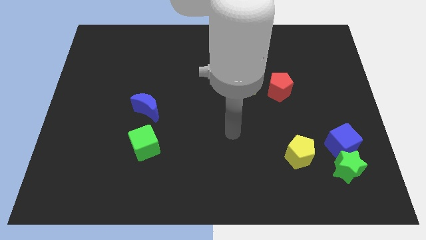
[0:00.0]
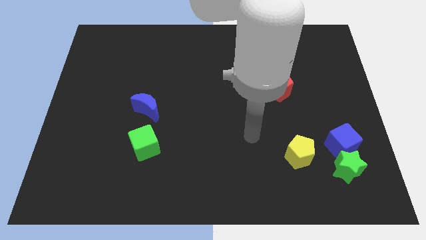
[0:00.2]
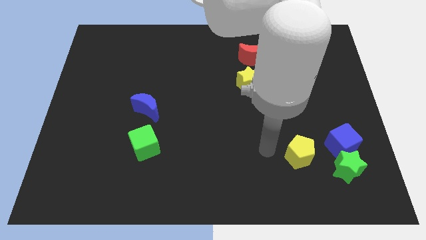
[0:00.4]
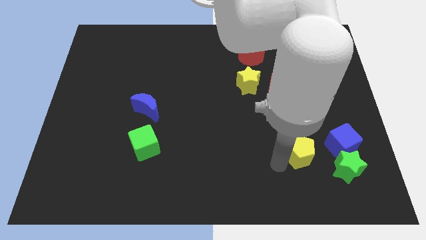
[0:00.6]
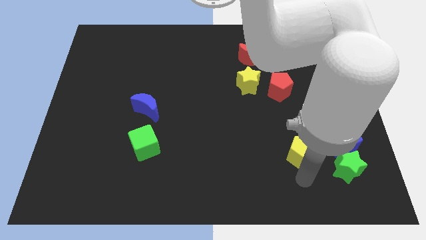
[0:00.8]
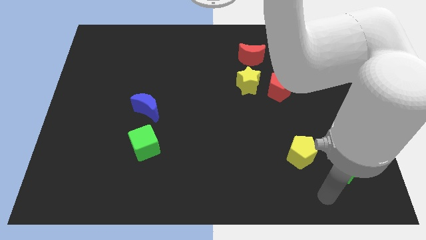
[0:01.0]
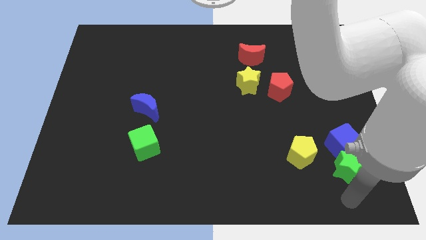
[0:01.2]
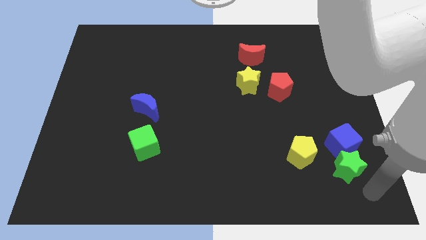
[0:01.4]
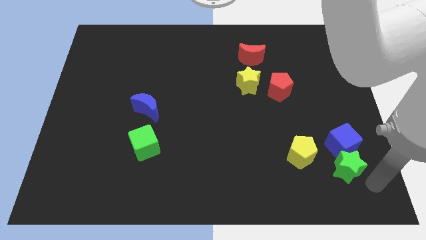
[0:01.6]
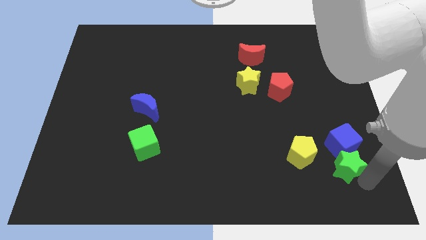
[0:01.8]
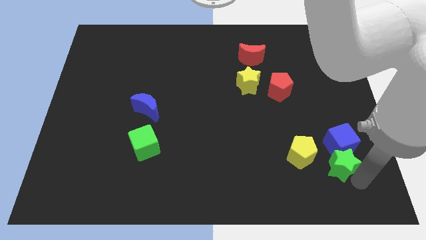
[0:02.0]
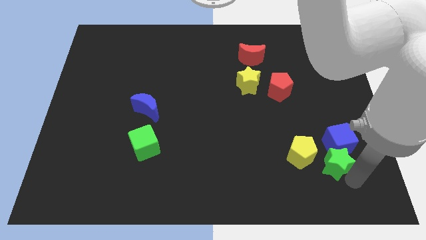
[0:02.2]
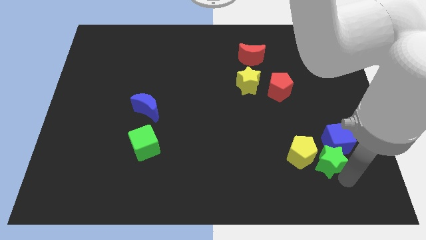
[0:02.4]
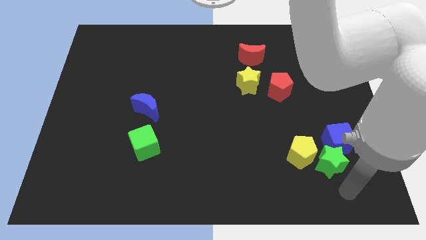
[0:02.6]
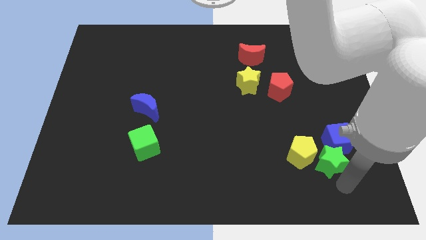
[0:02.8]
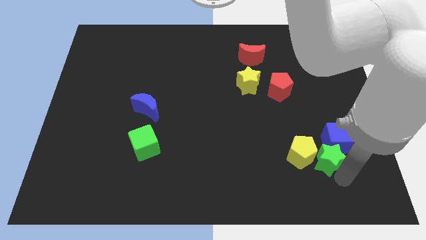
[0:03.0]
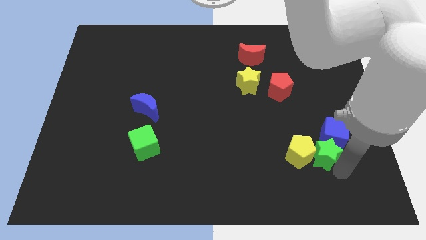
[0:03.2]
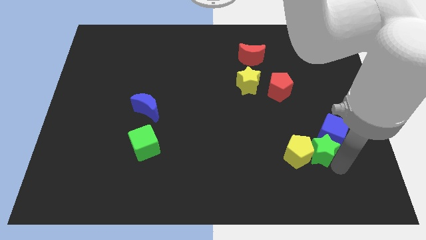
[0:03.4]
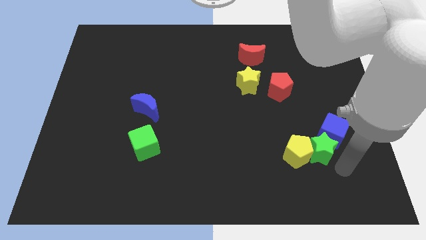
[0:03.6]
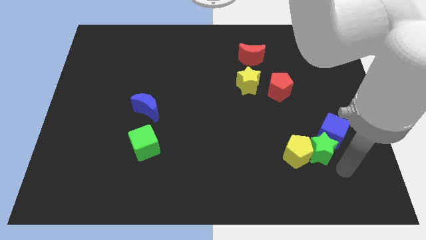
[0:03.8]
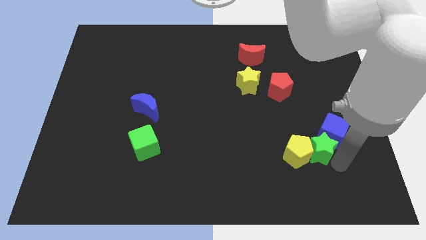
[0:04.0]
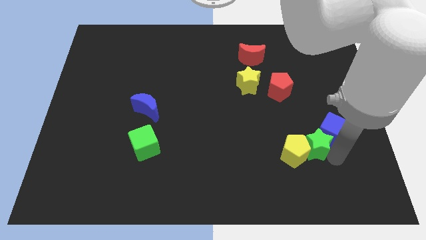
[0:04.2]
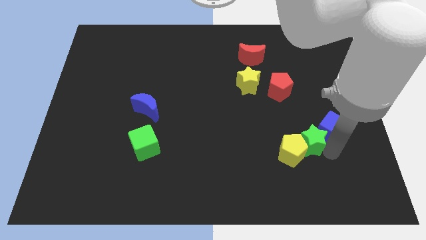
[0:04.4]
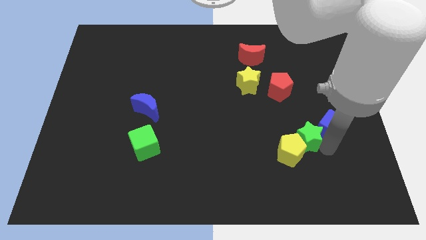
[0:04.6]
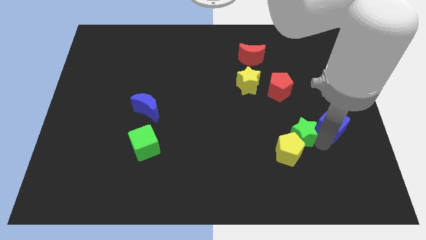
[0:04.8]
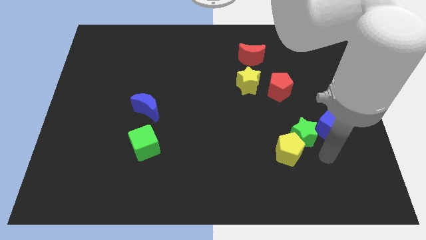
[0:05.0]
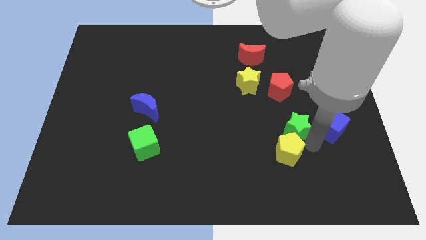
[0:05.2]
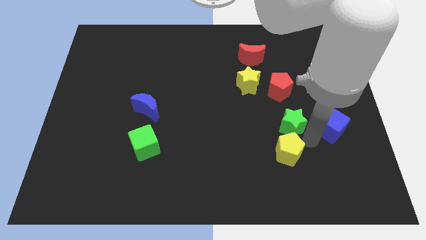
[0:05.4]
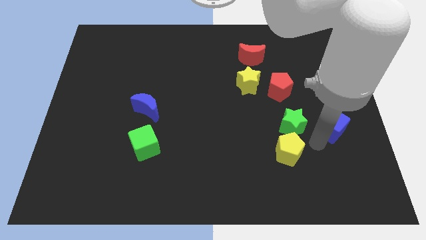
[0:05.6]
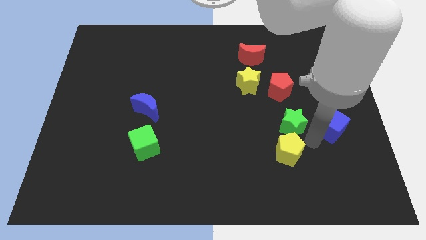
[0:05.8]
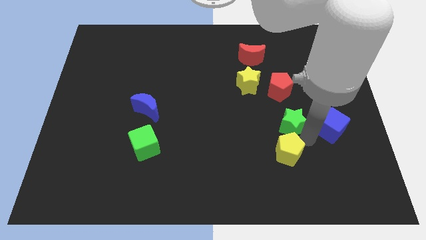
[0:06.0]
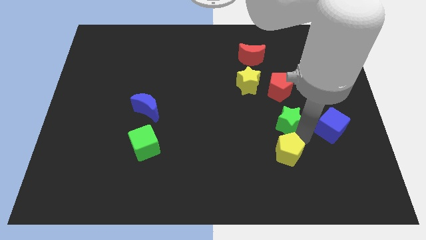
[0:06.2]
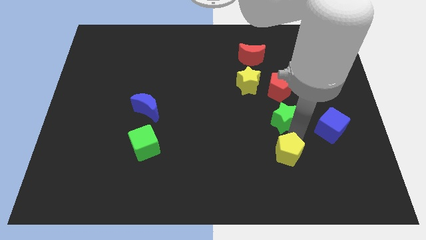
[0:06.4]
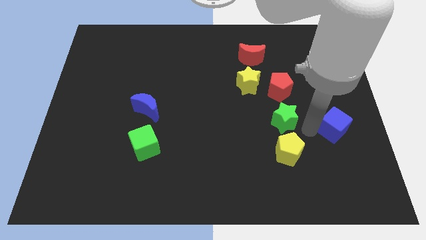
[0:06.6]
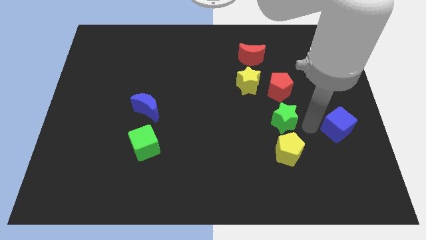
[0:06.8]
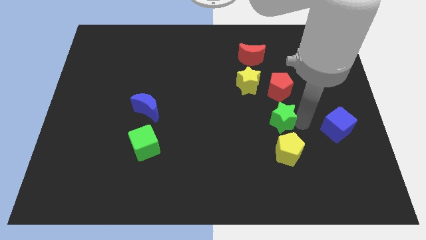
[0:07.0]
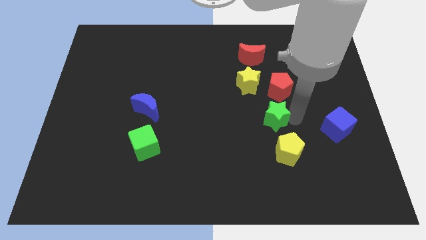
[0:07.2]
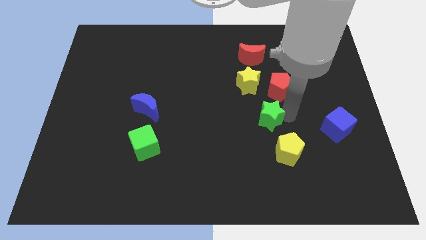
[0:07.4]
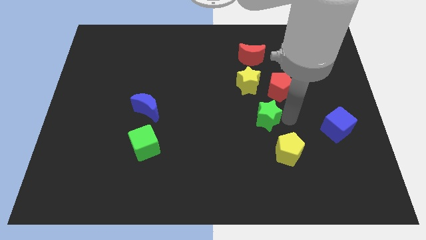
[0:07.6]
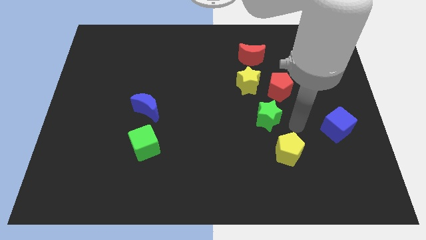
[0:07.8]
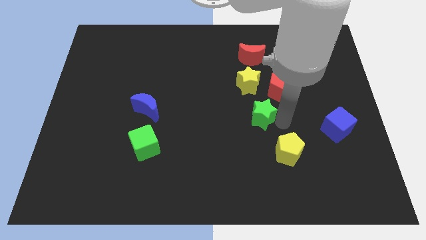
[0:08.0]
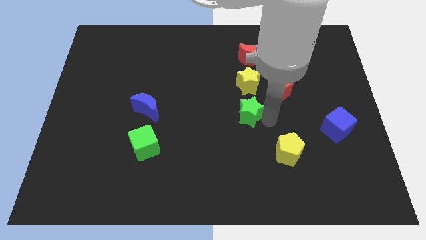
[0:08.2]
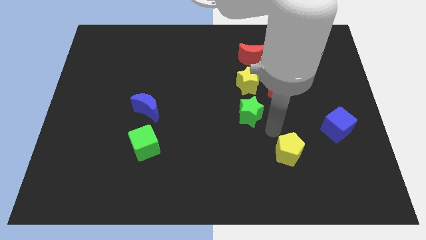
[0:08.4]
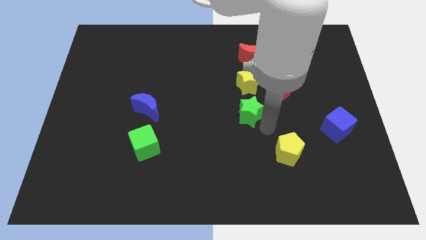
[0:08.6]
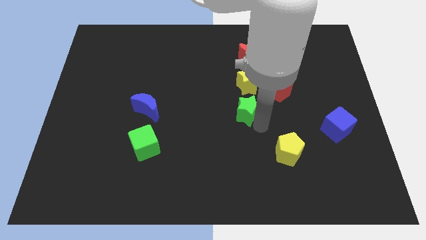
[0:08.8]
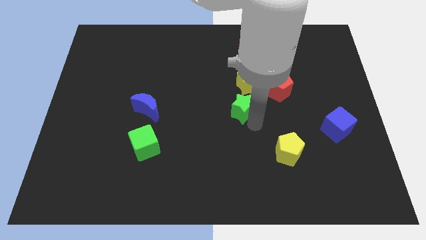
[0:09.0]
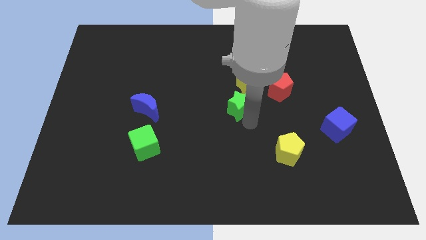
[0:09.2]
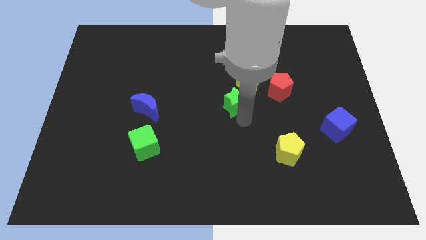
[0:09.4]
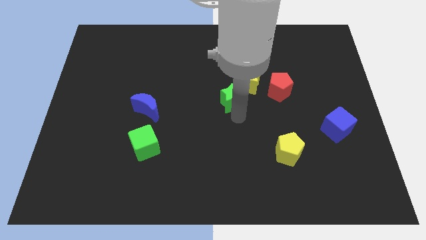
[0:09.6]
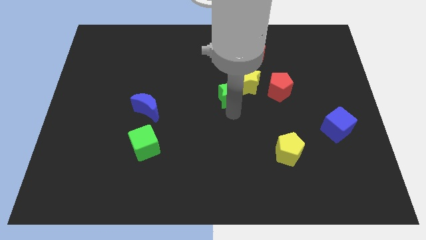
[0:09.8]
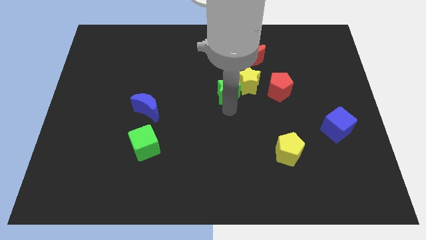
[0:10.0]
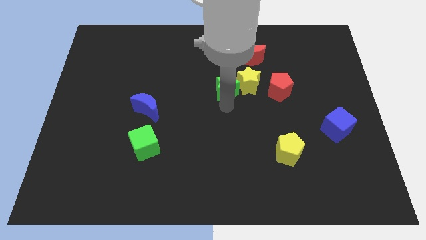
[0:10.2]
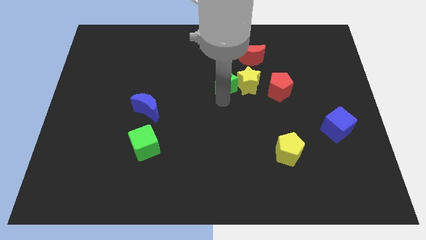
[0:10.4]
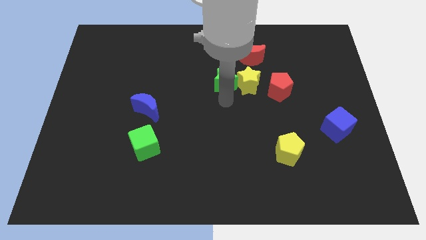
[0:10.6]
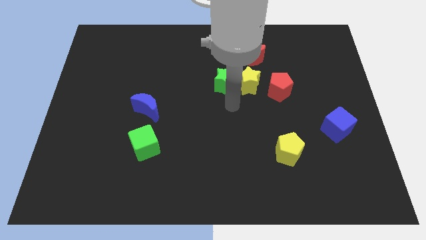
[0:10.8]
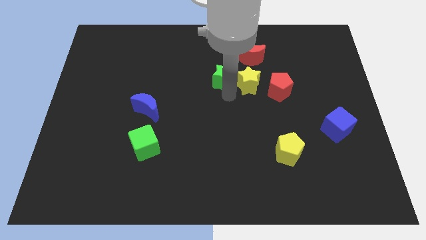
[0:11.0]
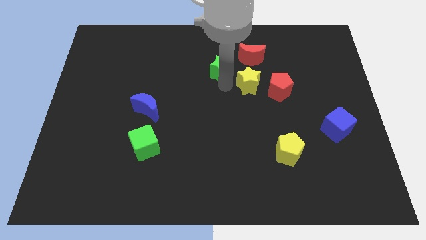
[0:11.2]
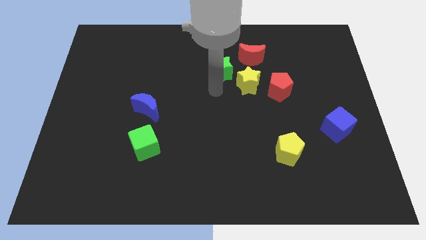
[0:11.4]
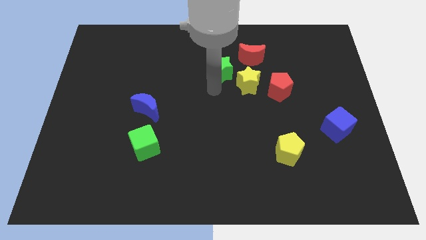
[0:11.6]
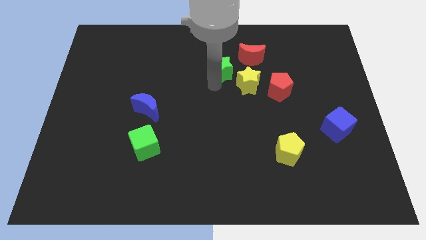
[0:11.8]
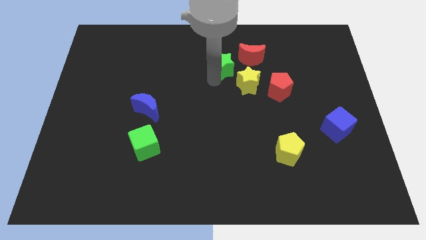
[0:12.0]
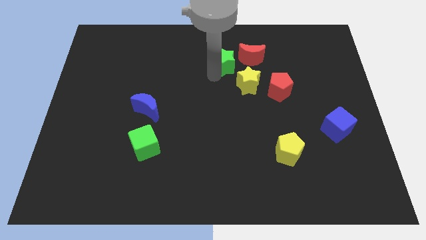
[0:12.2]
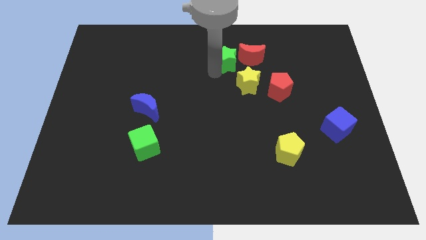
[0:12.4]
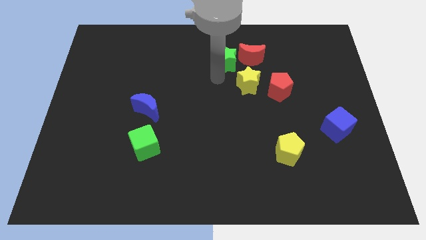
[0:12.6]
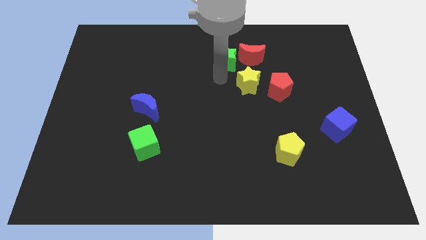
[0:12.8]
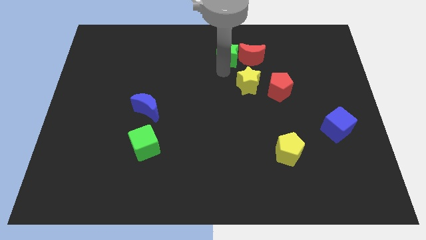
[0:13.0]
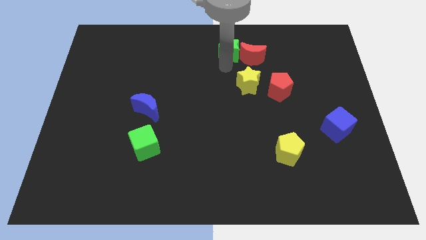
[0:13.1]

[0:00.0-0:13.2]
push the green star to the towards your base

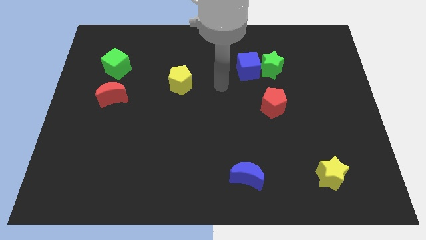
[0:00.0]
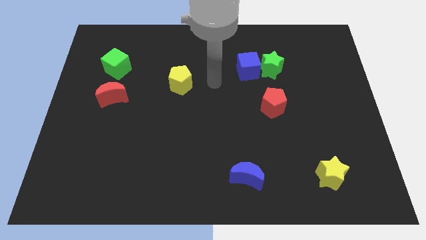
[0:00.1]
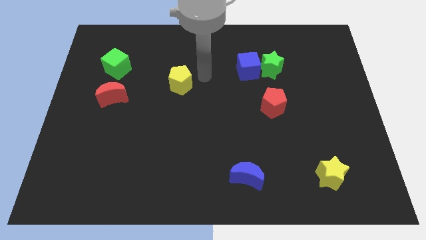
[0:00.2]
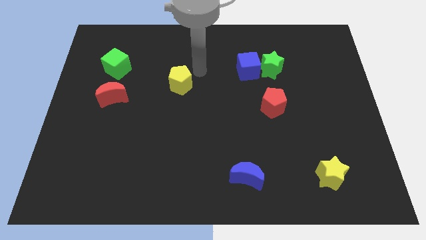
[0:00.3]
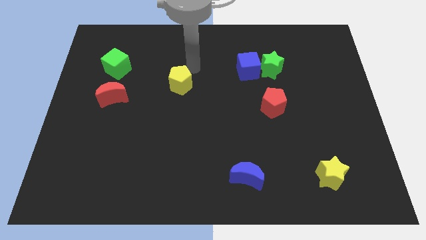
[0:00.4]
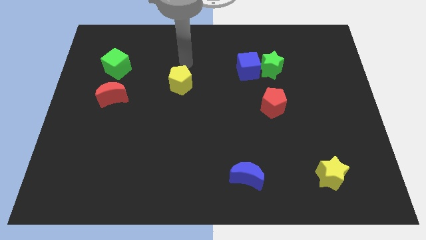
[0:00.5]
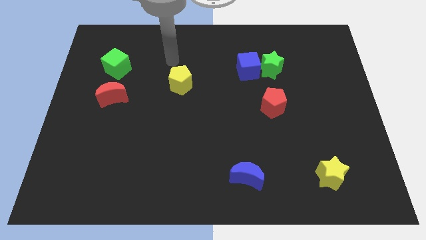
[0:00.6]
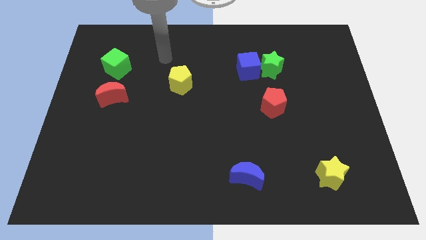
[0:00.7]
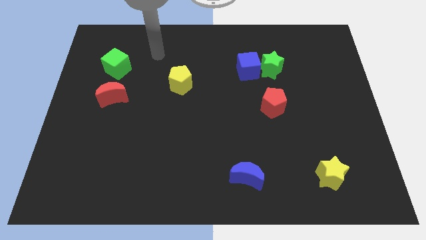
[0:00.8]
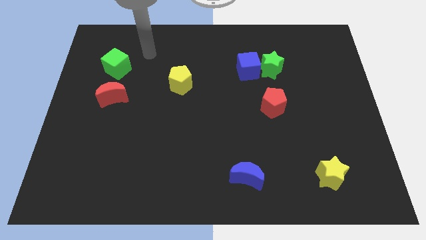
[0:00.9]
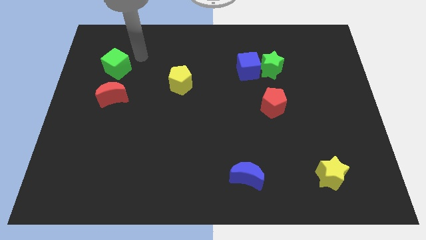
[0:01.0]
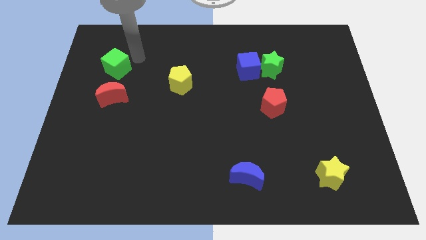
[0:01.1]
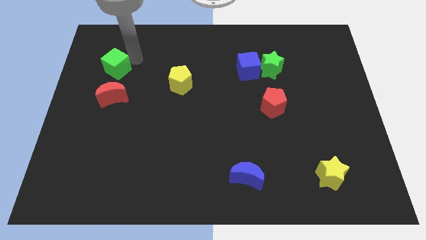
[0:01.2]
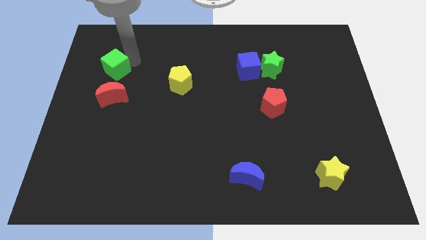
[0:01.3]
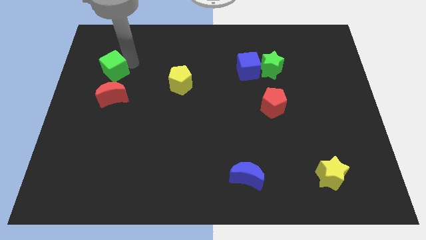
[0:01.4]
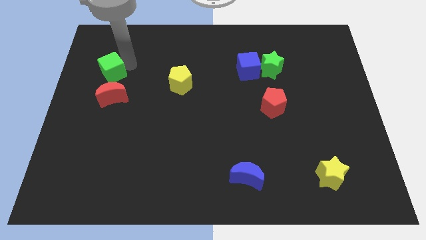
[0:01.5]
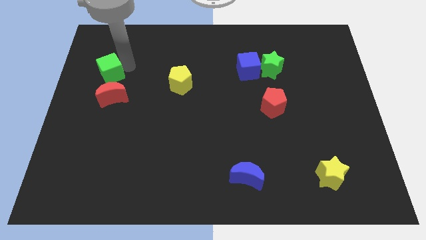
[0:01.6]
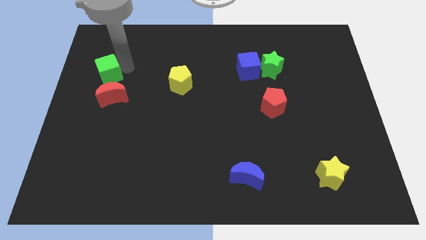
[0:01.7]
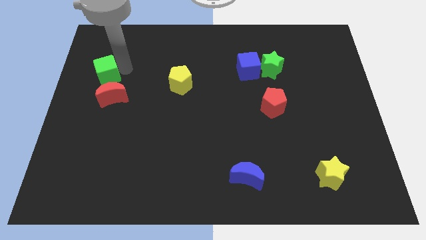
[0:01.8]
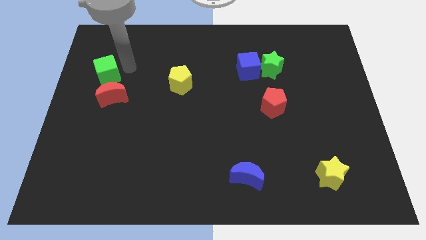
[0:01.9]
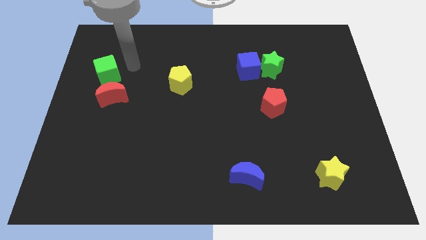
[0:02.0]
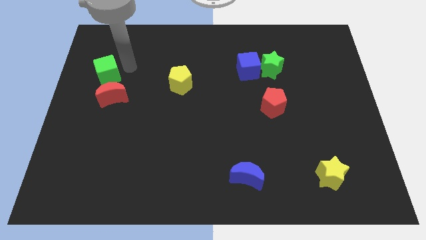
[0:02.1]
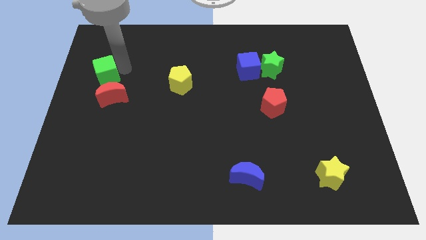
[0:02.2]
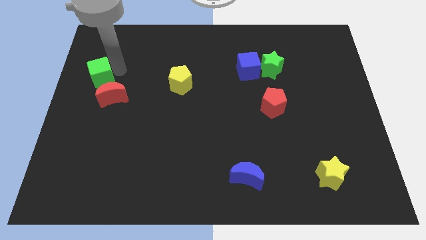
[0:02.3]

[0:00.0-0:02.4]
move the green cube to the left side of the board
